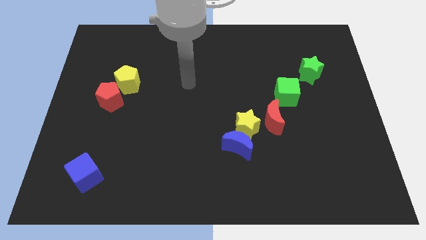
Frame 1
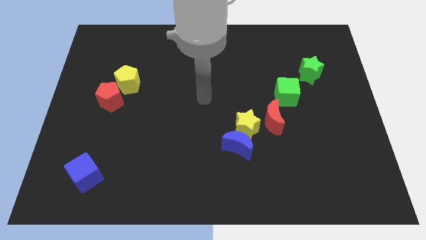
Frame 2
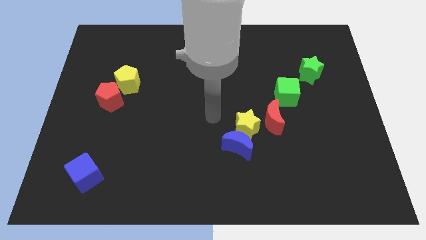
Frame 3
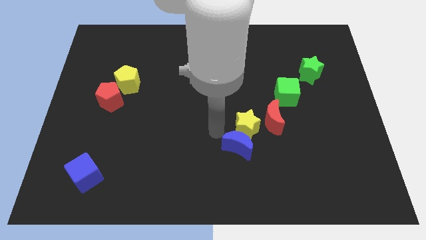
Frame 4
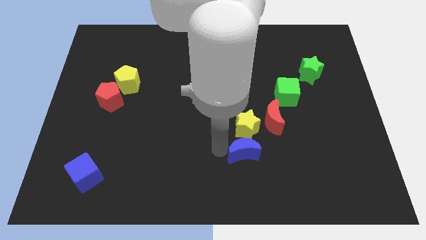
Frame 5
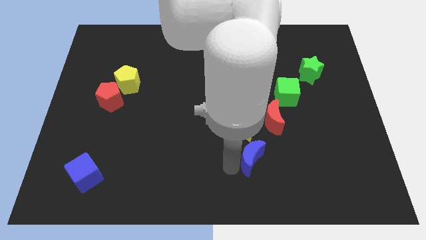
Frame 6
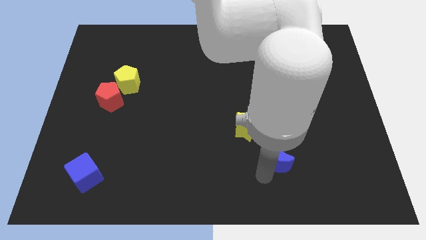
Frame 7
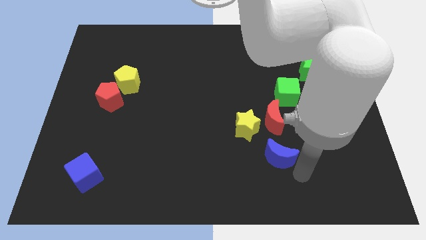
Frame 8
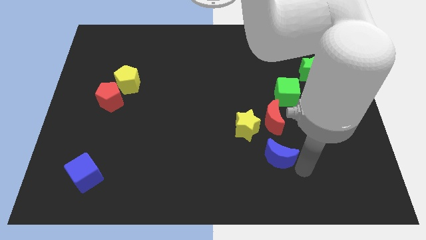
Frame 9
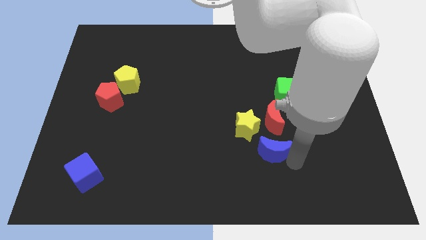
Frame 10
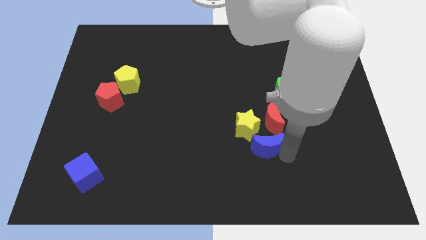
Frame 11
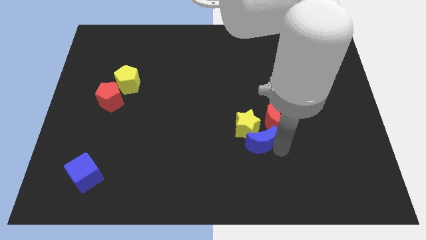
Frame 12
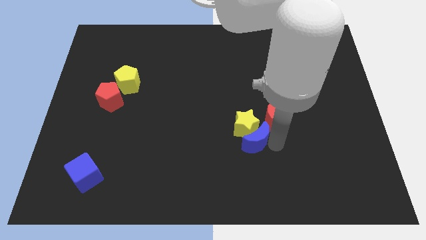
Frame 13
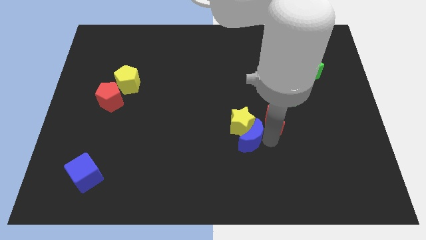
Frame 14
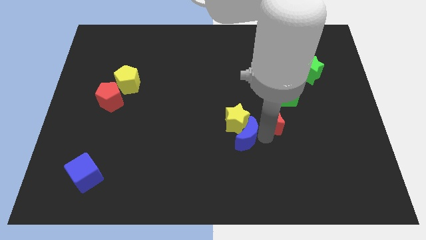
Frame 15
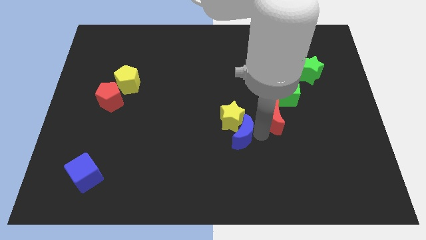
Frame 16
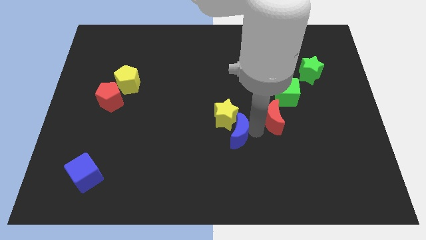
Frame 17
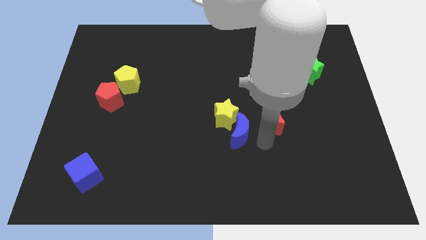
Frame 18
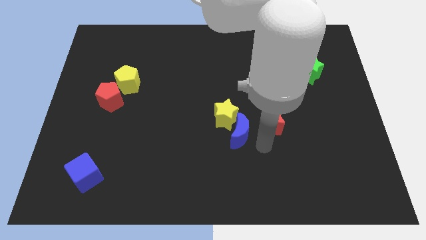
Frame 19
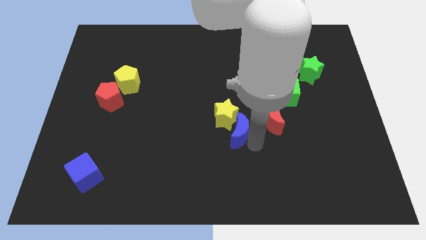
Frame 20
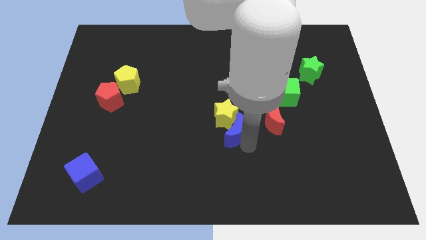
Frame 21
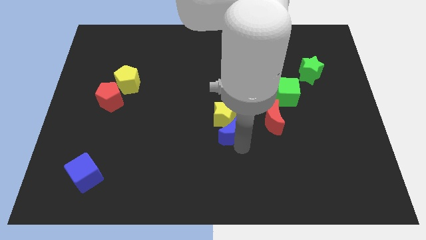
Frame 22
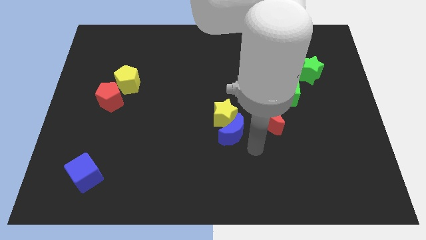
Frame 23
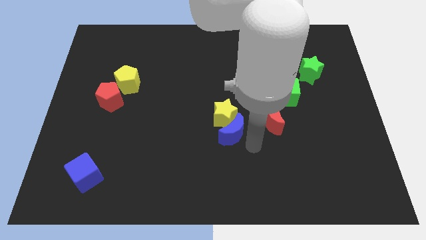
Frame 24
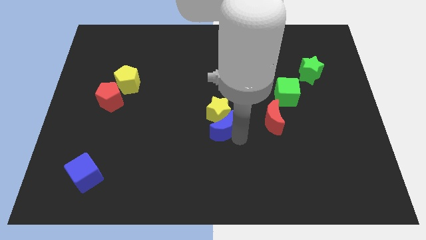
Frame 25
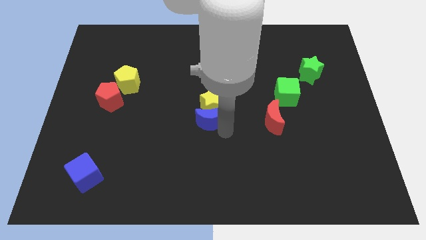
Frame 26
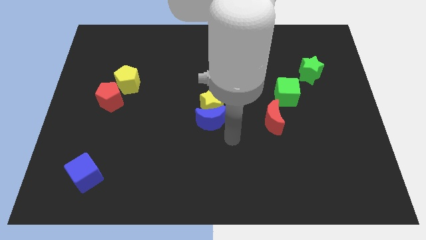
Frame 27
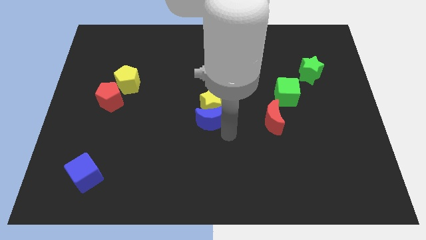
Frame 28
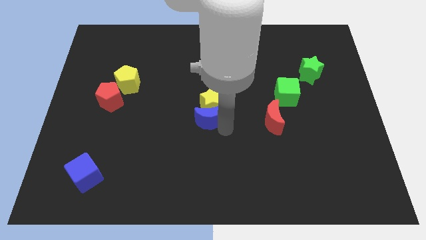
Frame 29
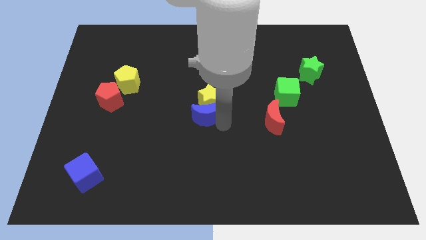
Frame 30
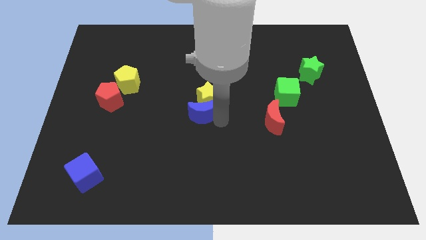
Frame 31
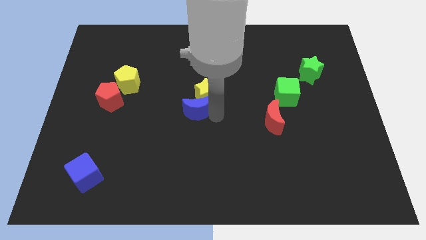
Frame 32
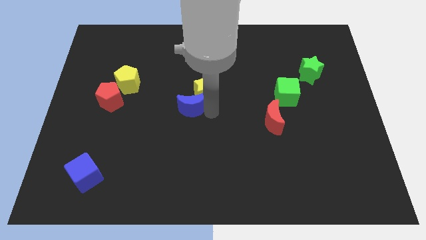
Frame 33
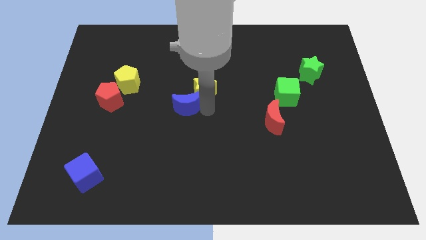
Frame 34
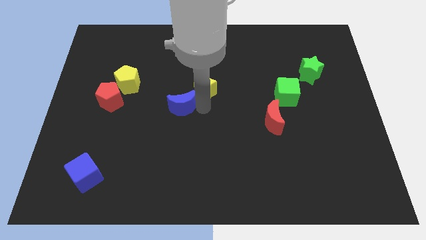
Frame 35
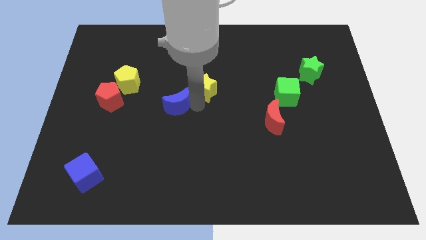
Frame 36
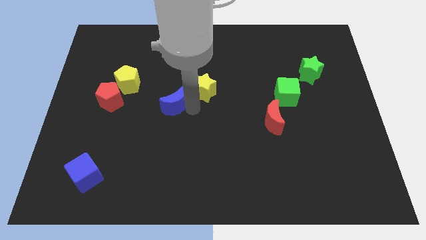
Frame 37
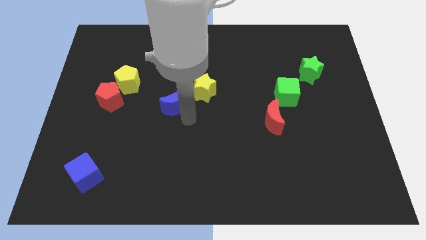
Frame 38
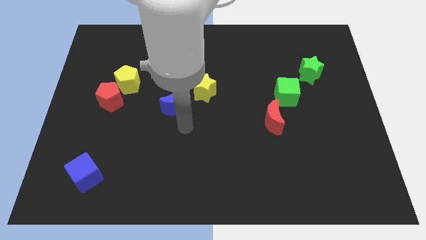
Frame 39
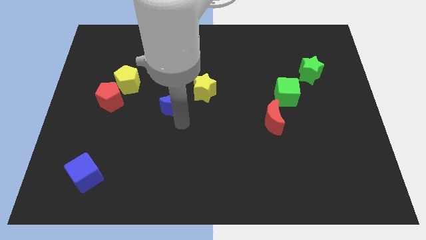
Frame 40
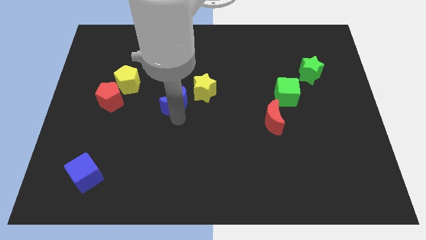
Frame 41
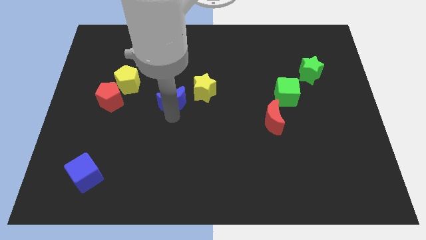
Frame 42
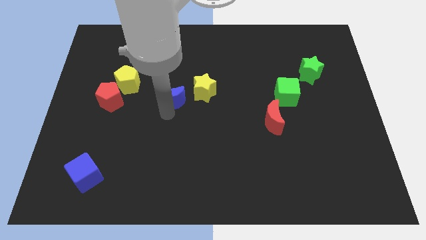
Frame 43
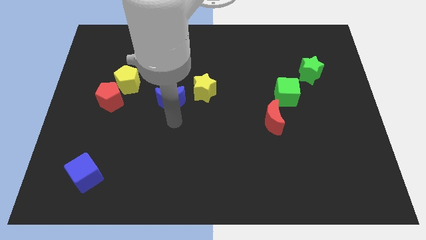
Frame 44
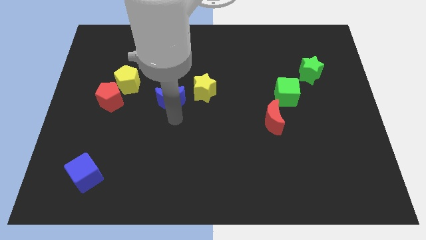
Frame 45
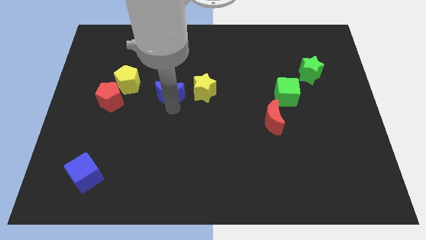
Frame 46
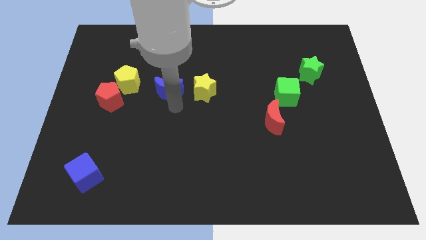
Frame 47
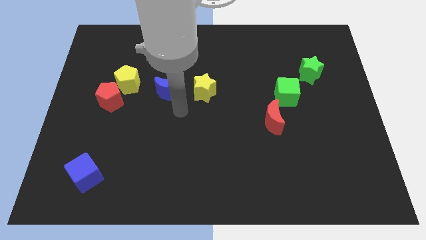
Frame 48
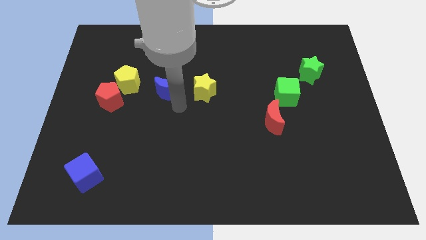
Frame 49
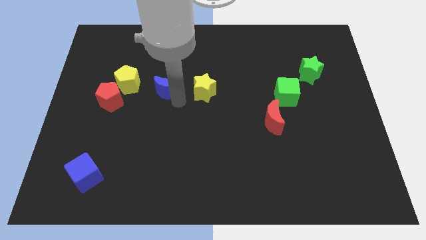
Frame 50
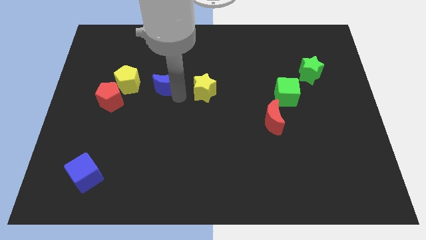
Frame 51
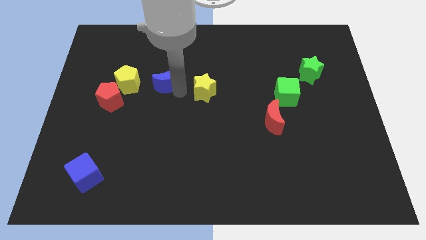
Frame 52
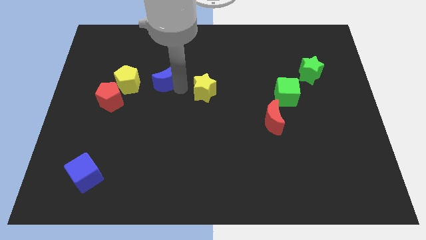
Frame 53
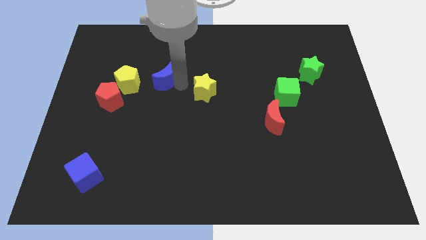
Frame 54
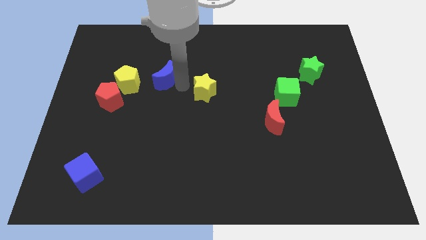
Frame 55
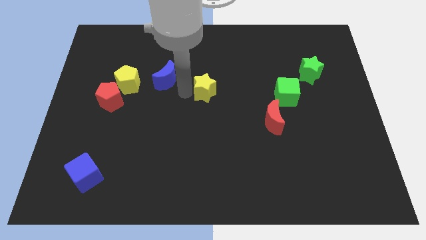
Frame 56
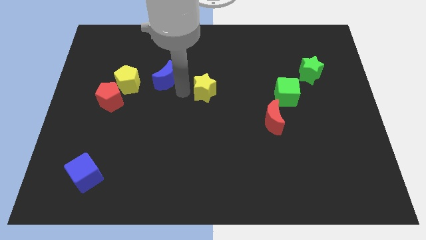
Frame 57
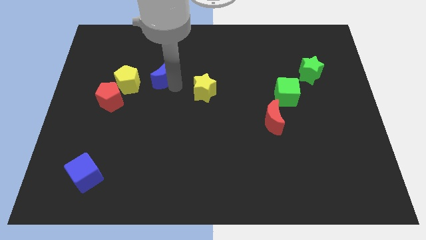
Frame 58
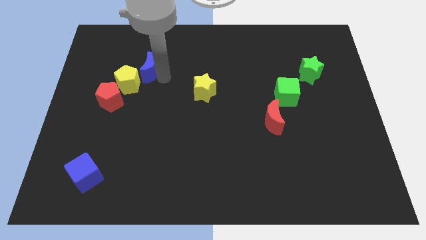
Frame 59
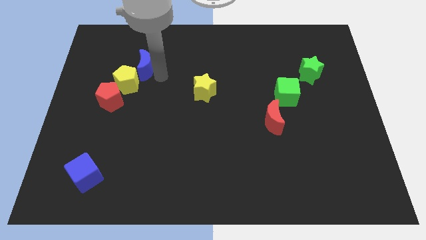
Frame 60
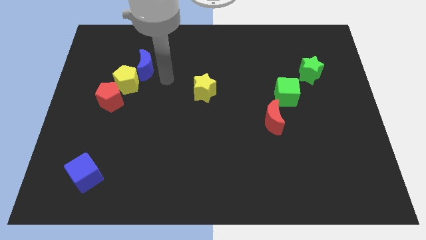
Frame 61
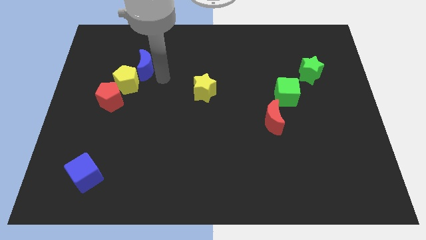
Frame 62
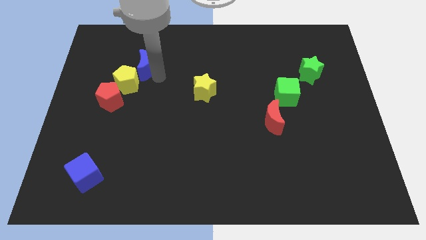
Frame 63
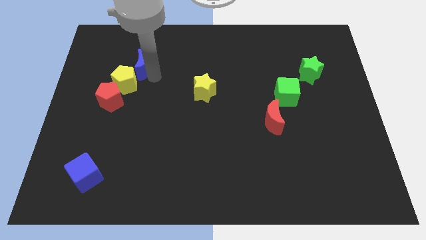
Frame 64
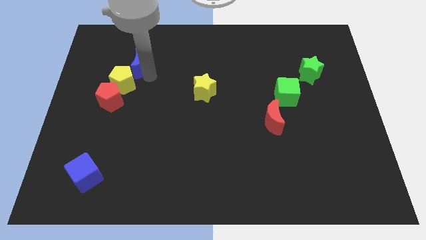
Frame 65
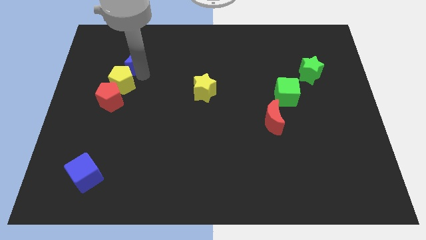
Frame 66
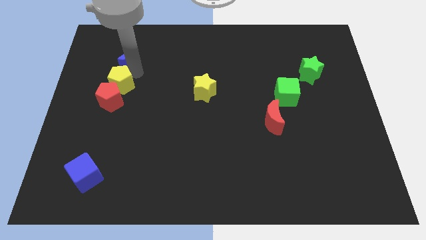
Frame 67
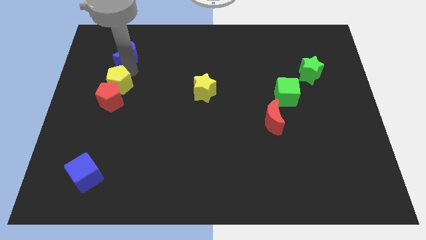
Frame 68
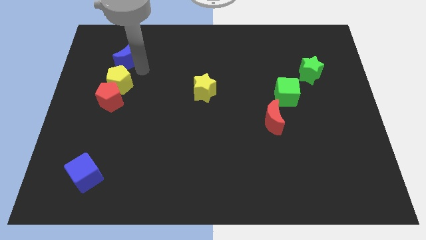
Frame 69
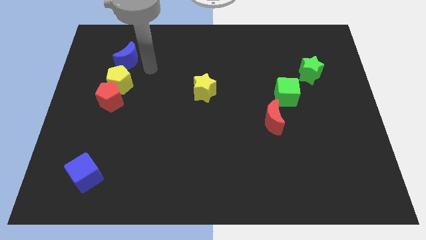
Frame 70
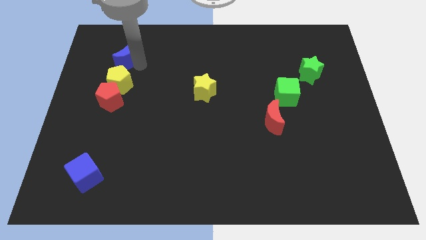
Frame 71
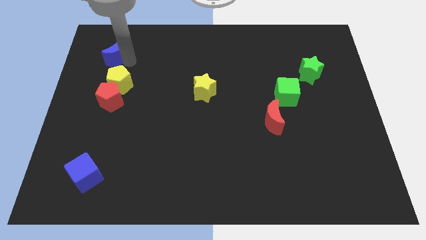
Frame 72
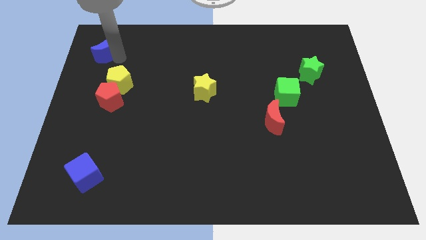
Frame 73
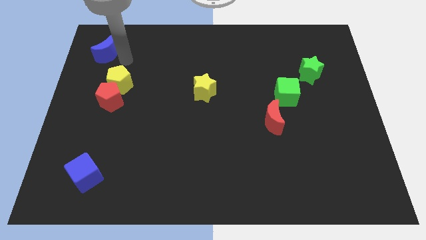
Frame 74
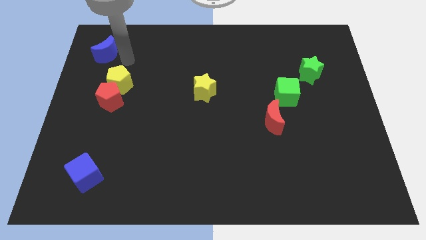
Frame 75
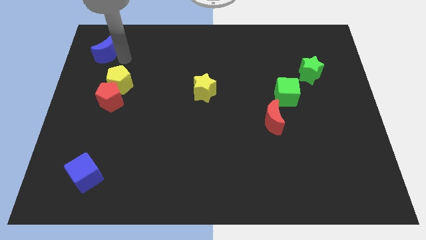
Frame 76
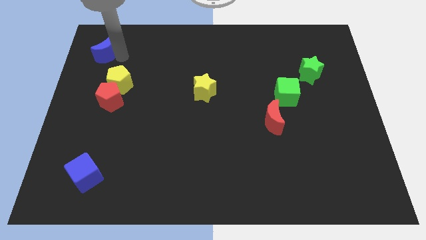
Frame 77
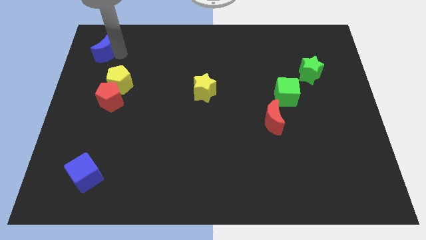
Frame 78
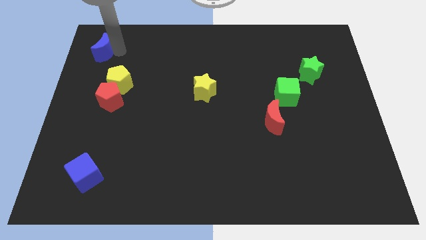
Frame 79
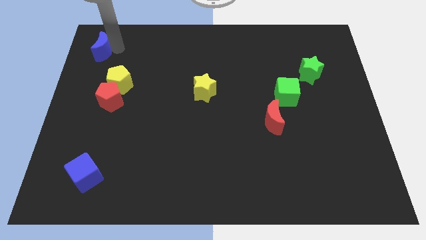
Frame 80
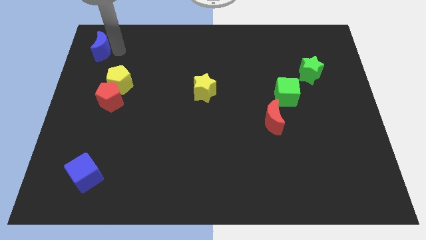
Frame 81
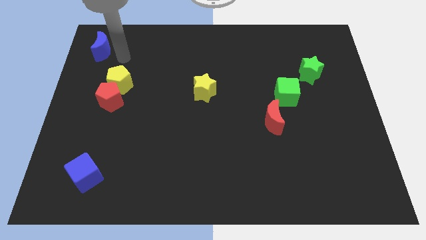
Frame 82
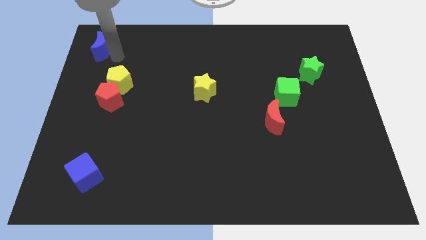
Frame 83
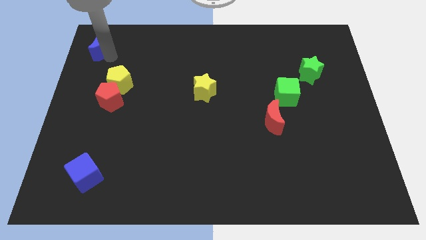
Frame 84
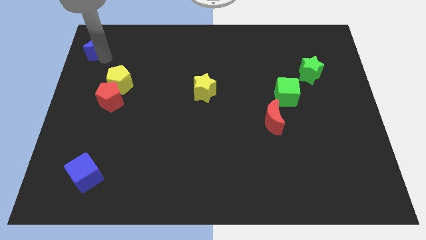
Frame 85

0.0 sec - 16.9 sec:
put the blue moon to the top left of the board
